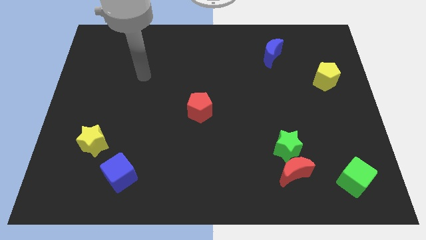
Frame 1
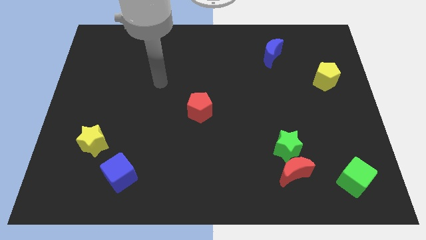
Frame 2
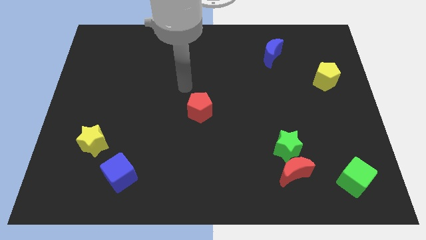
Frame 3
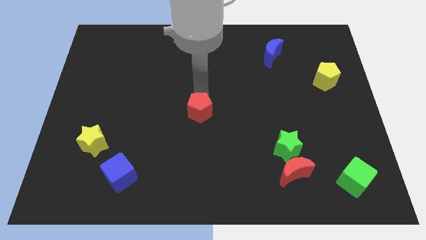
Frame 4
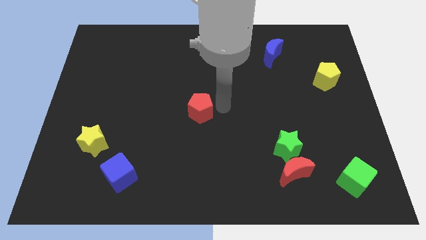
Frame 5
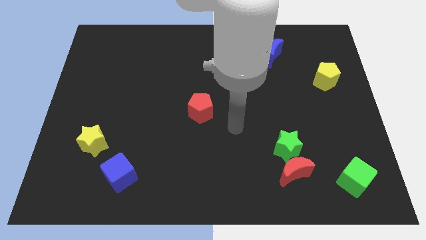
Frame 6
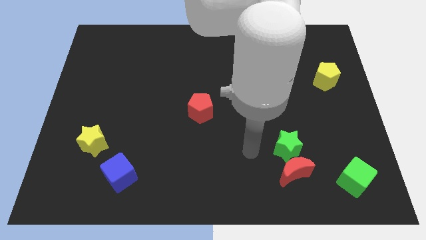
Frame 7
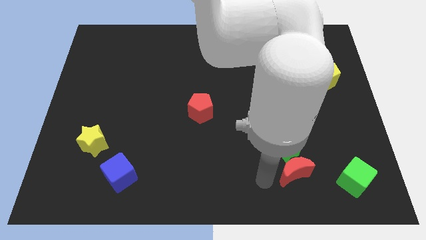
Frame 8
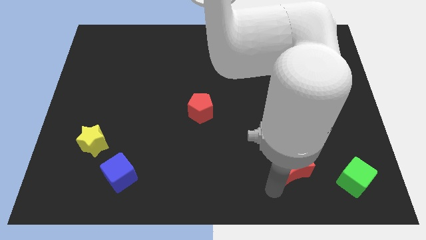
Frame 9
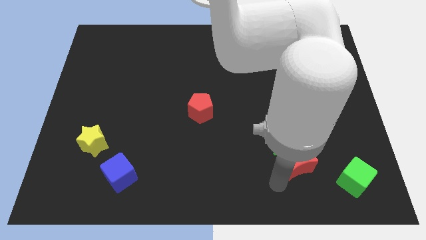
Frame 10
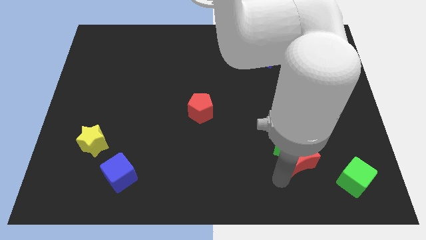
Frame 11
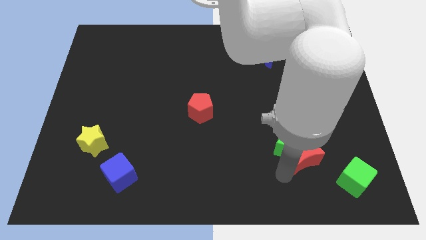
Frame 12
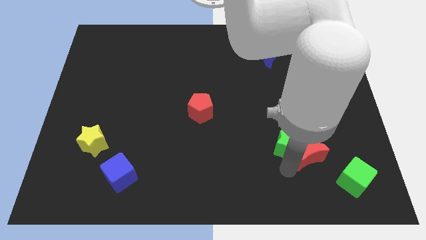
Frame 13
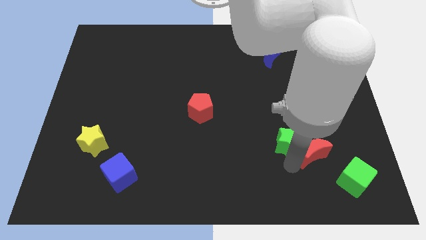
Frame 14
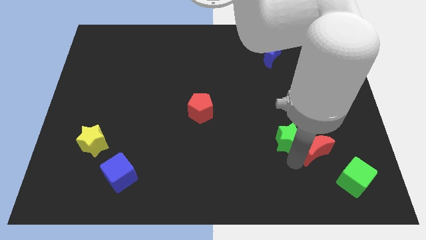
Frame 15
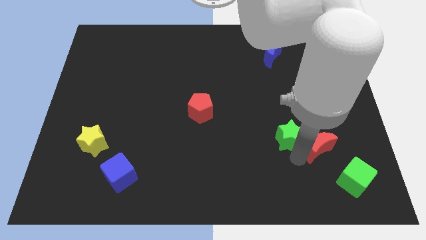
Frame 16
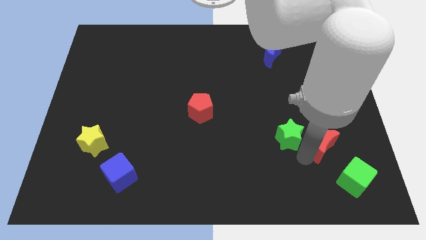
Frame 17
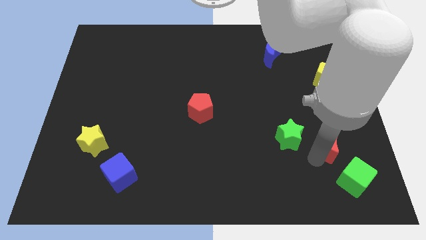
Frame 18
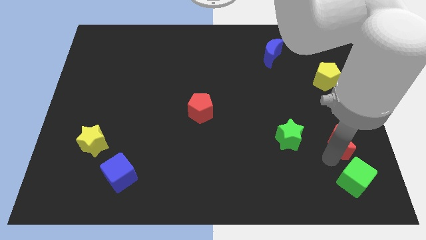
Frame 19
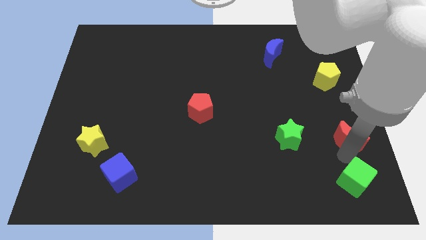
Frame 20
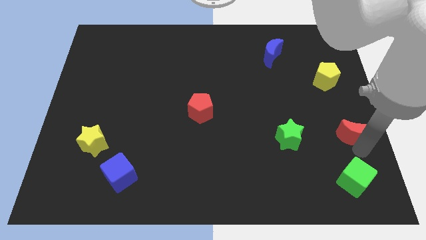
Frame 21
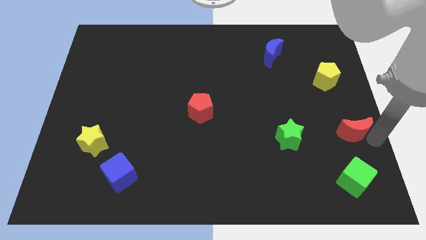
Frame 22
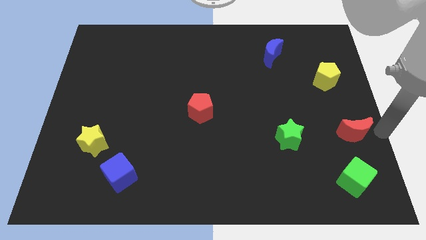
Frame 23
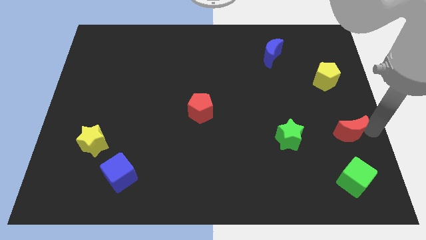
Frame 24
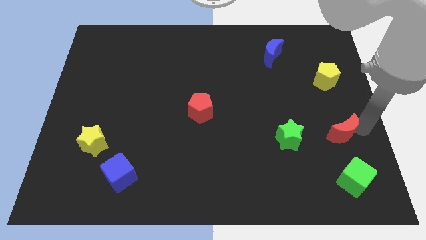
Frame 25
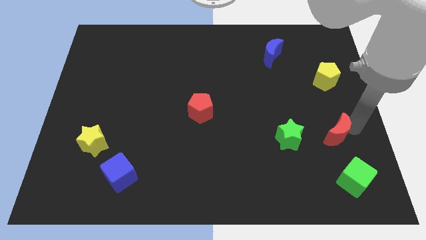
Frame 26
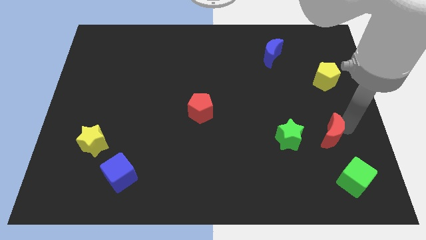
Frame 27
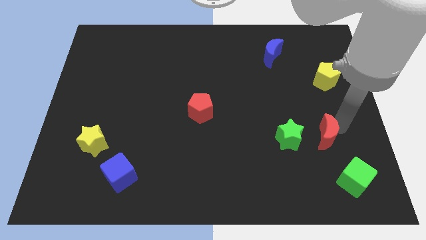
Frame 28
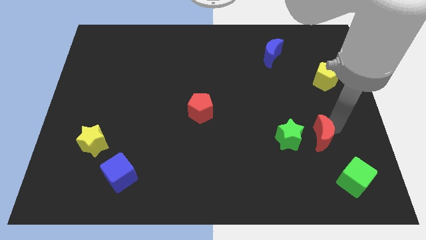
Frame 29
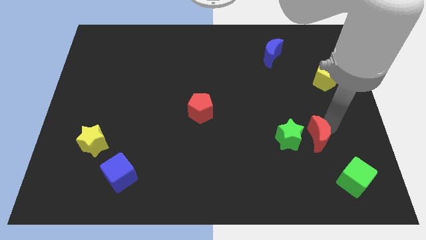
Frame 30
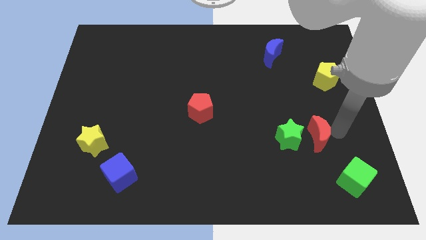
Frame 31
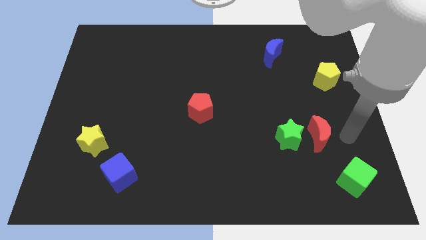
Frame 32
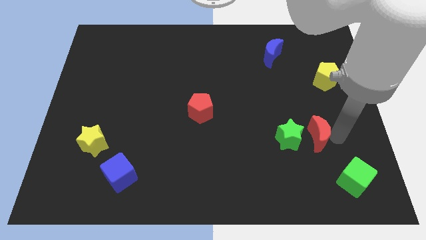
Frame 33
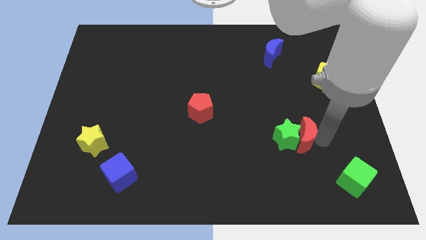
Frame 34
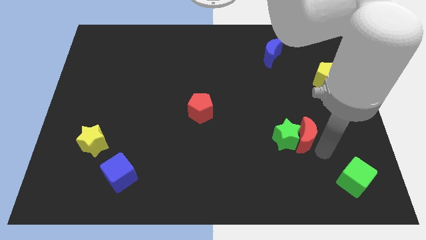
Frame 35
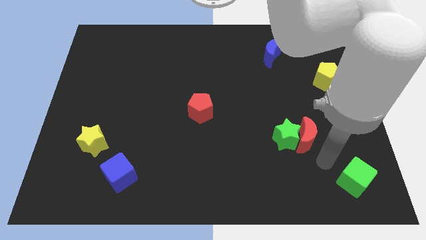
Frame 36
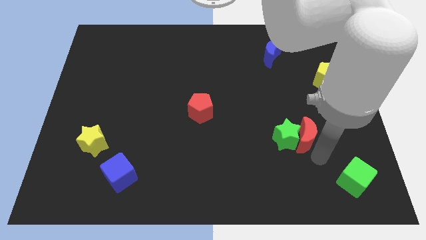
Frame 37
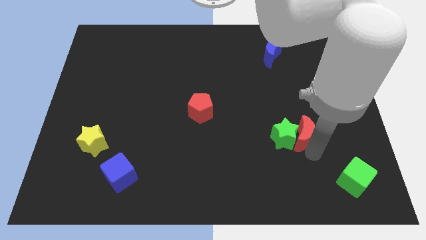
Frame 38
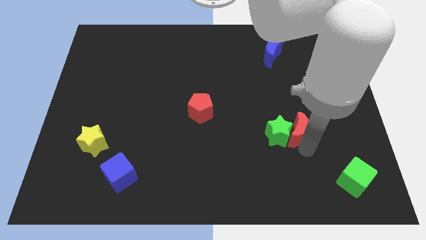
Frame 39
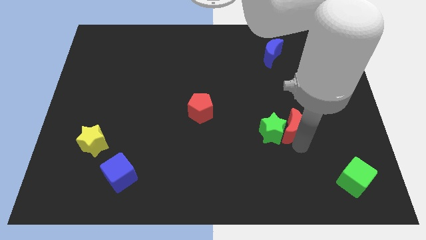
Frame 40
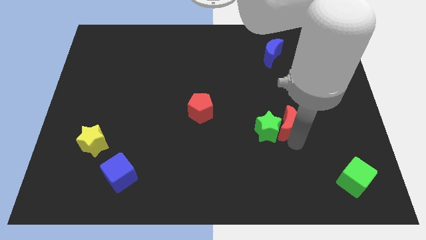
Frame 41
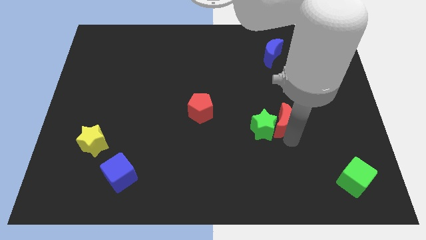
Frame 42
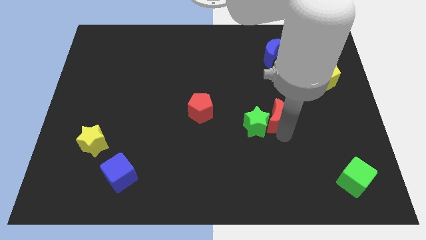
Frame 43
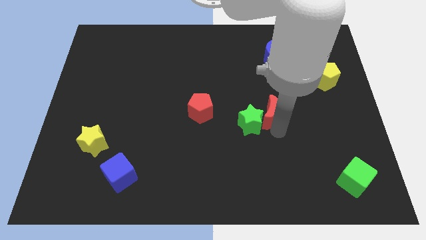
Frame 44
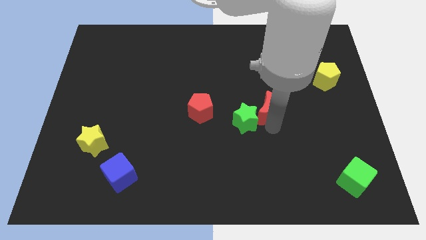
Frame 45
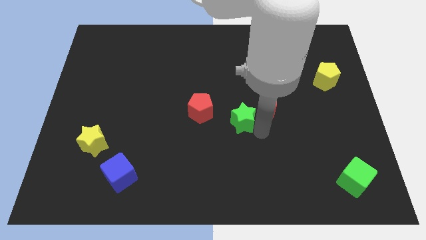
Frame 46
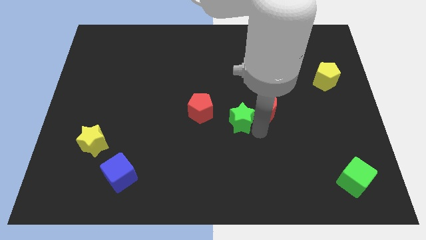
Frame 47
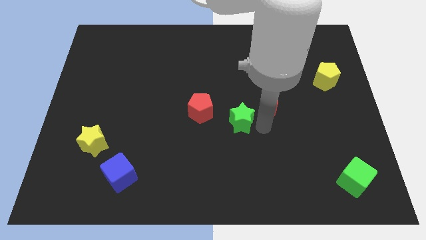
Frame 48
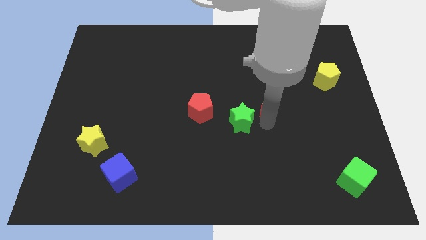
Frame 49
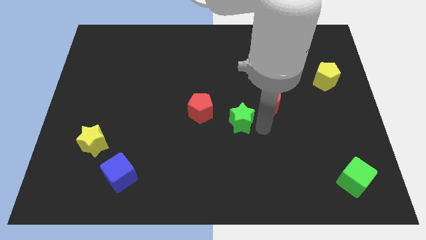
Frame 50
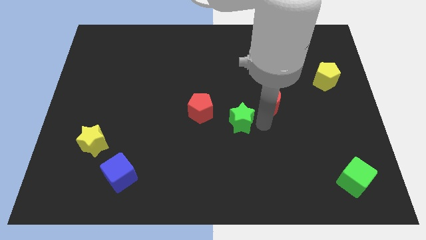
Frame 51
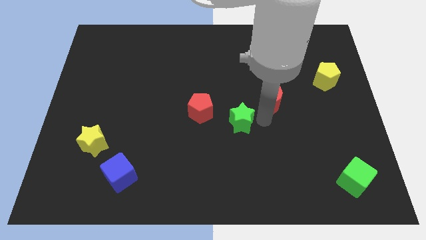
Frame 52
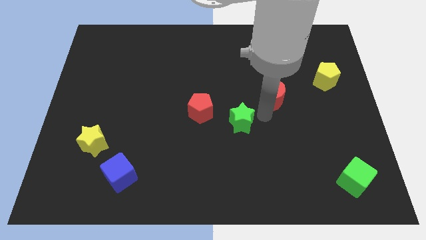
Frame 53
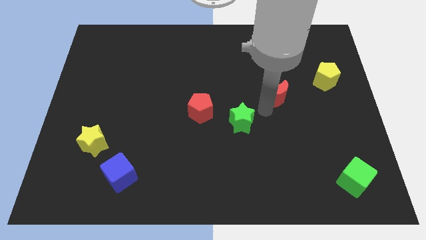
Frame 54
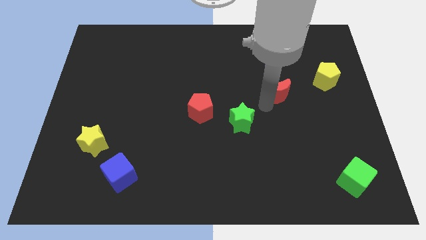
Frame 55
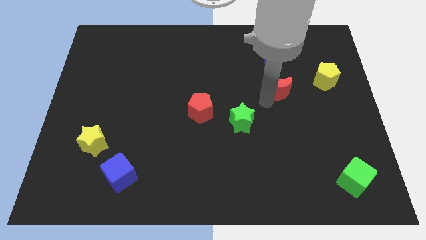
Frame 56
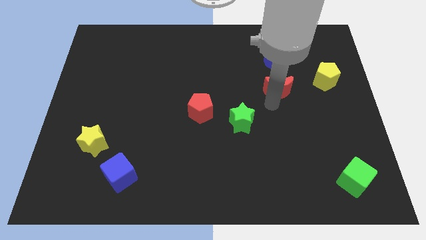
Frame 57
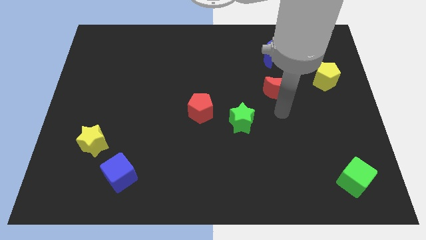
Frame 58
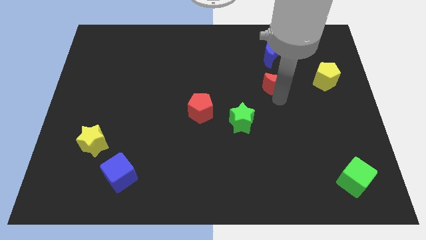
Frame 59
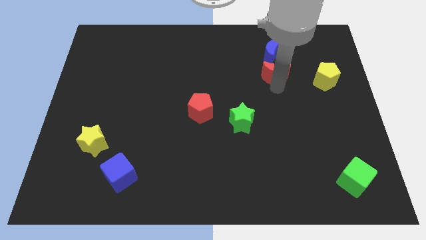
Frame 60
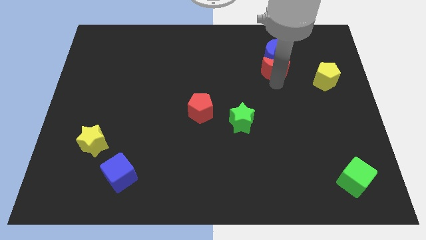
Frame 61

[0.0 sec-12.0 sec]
slide the red moon to the blue moon

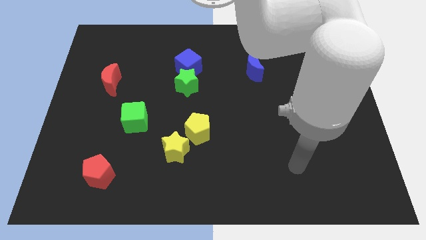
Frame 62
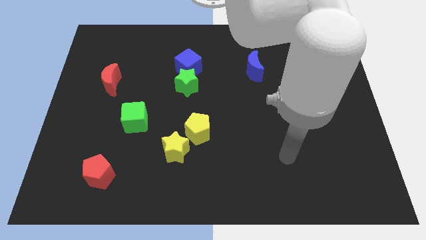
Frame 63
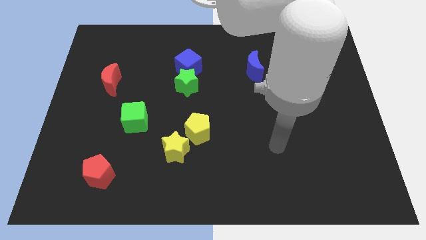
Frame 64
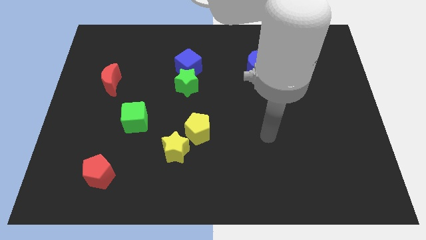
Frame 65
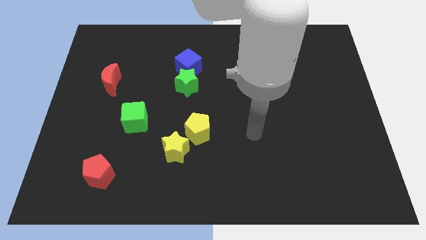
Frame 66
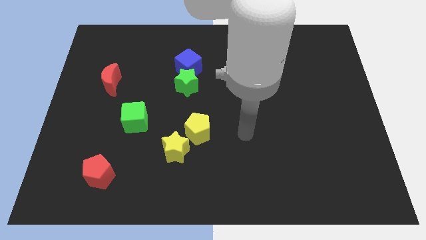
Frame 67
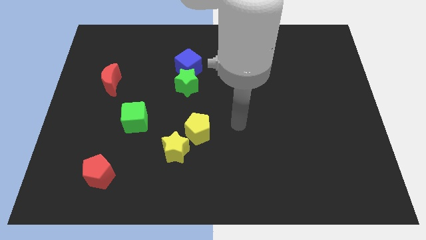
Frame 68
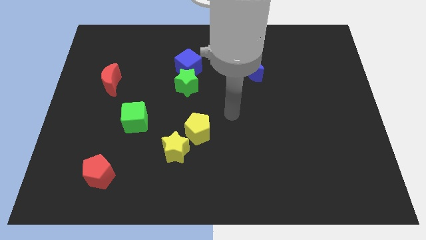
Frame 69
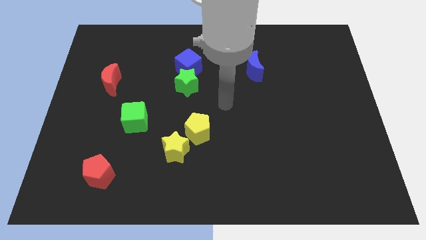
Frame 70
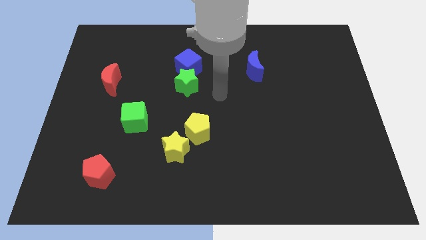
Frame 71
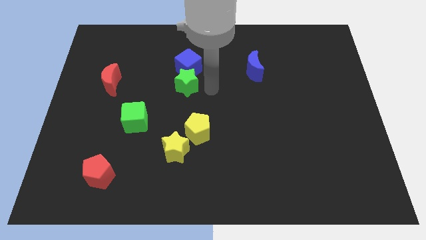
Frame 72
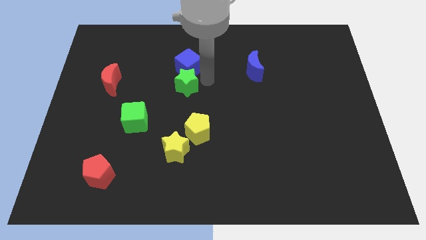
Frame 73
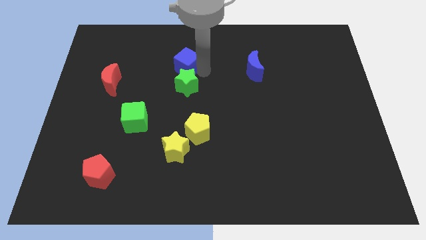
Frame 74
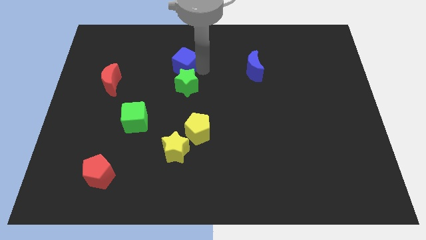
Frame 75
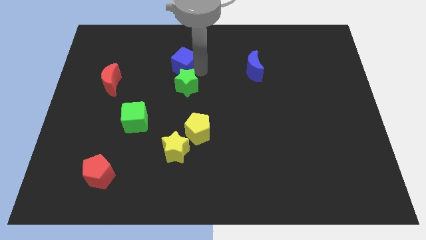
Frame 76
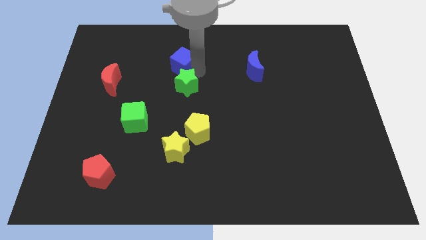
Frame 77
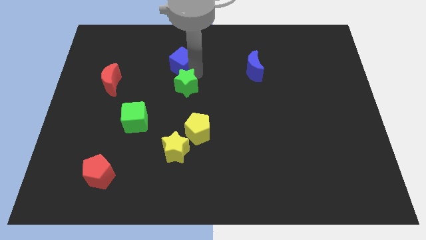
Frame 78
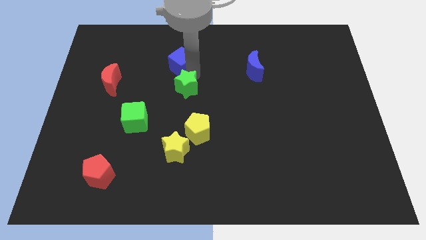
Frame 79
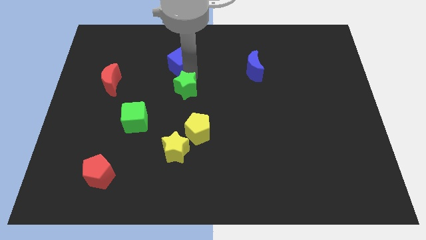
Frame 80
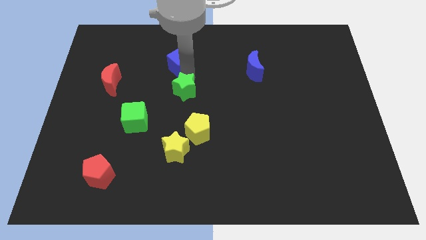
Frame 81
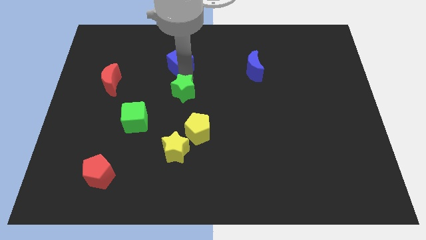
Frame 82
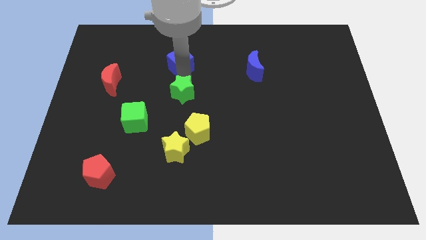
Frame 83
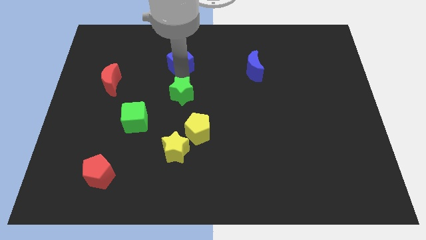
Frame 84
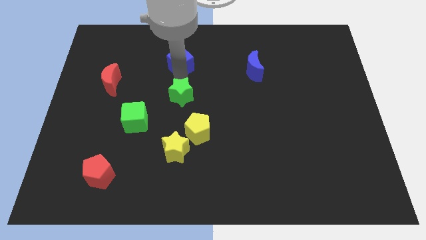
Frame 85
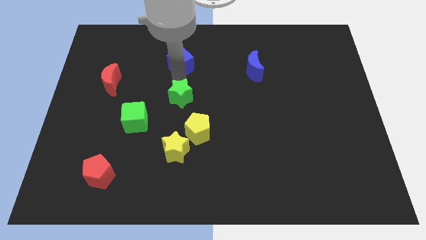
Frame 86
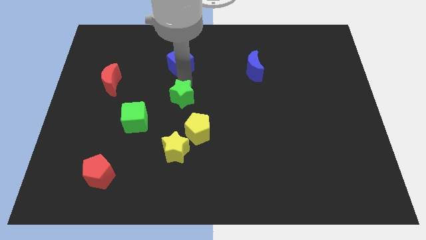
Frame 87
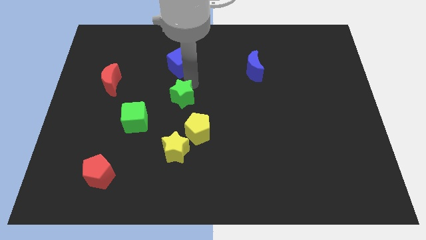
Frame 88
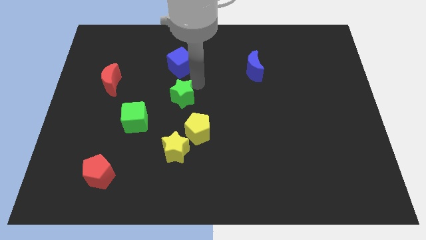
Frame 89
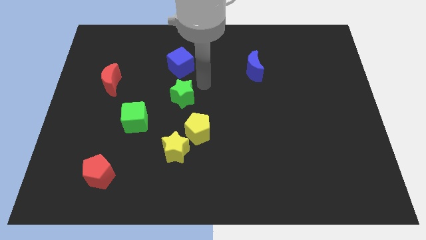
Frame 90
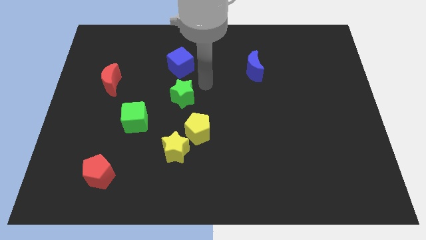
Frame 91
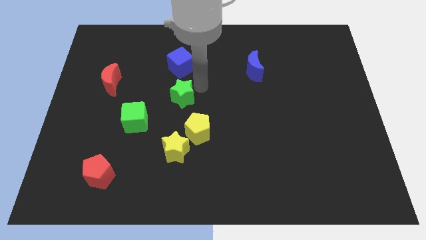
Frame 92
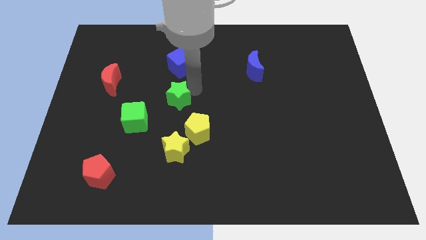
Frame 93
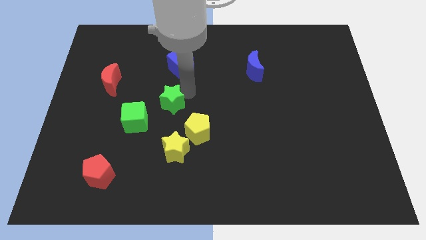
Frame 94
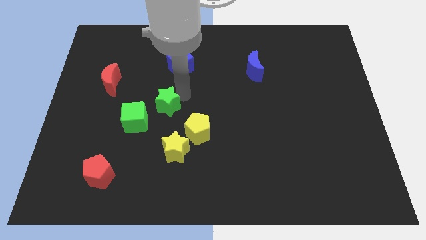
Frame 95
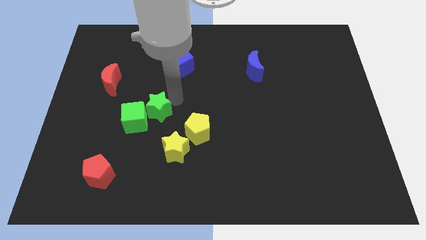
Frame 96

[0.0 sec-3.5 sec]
put the green star towards the green cube
